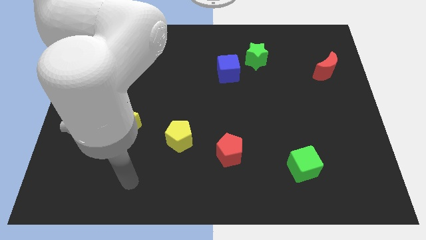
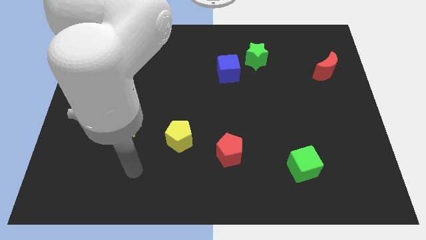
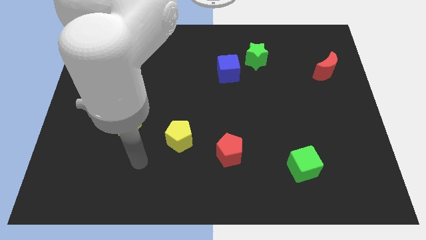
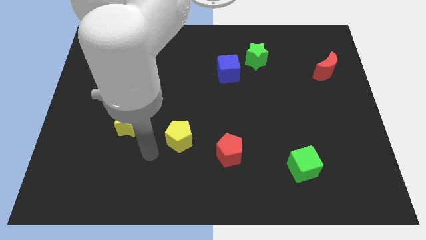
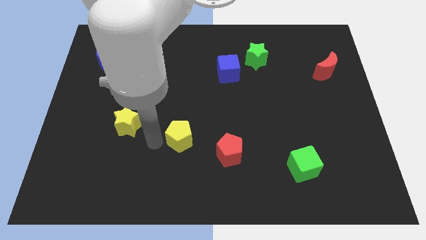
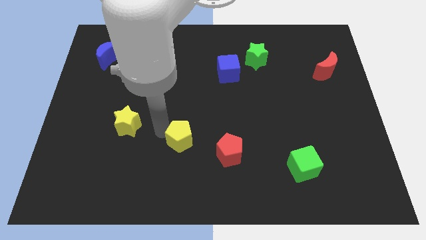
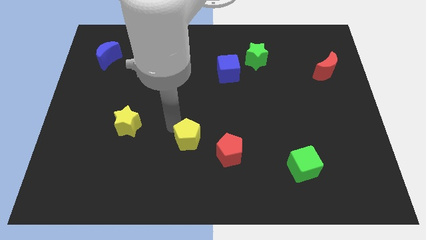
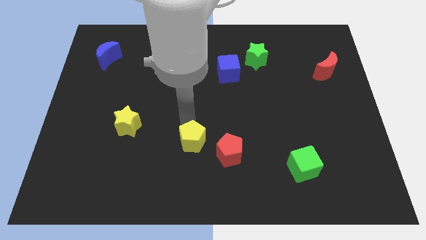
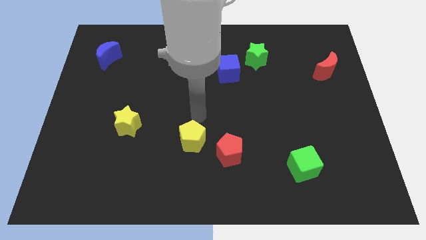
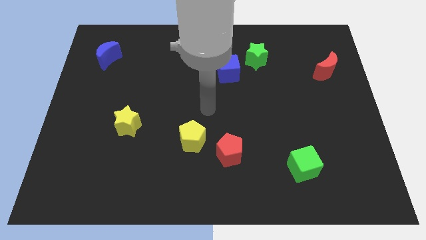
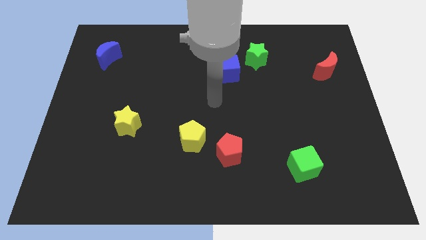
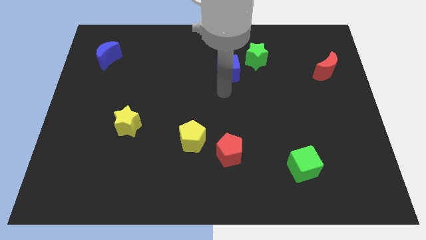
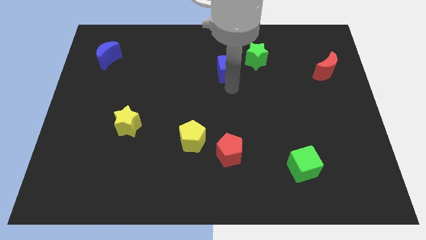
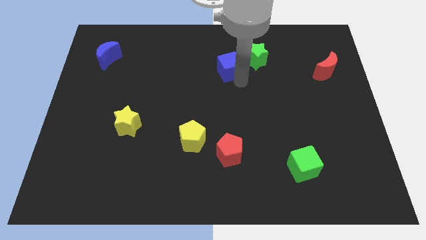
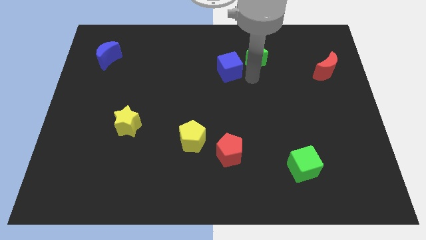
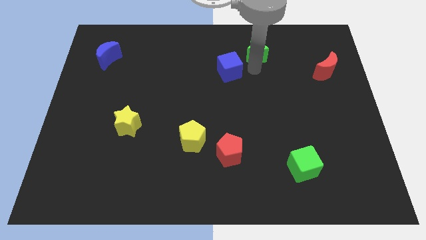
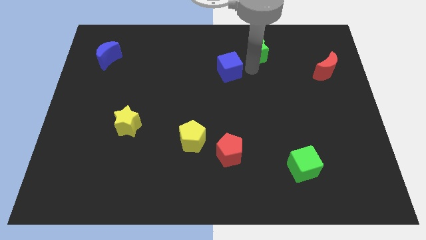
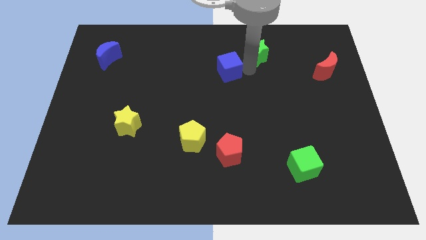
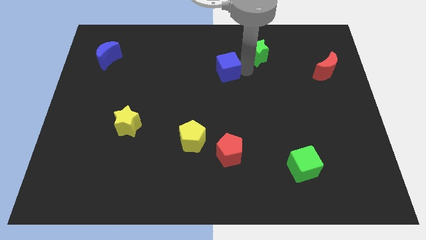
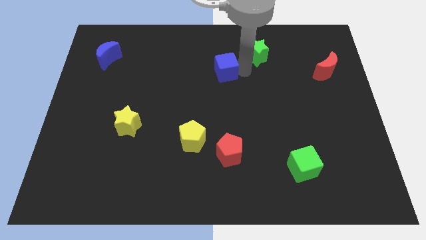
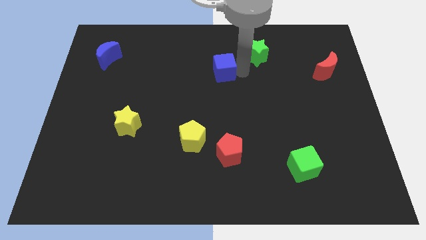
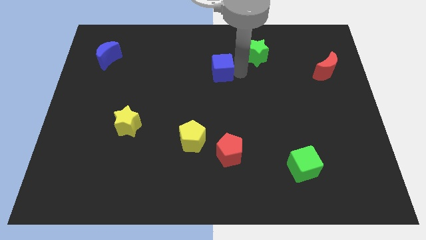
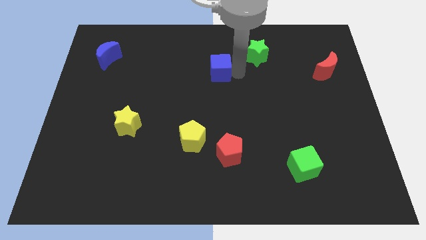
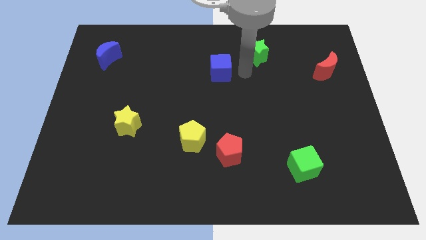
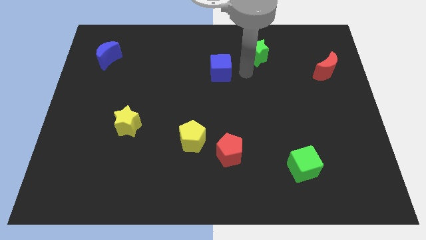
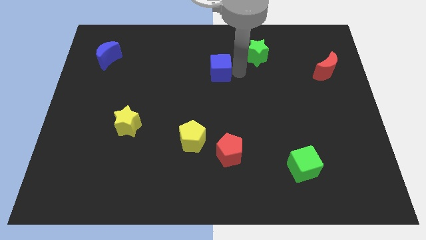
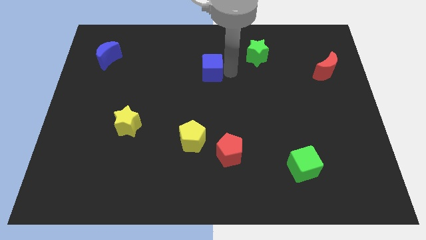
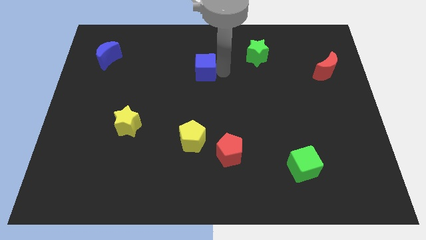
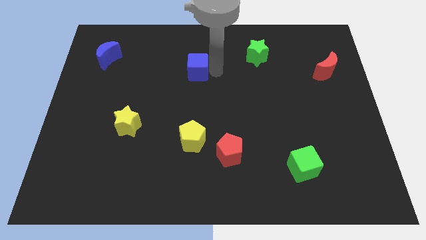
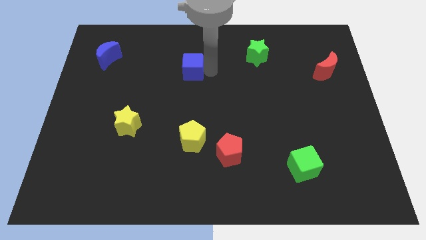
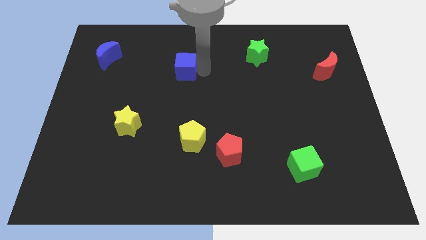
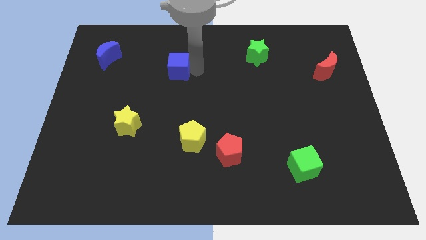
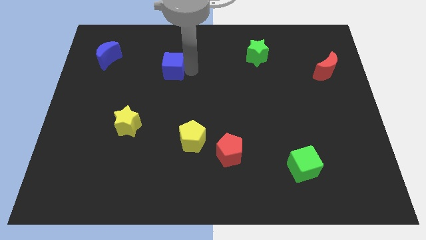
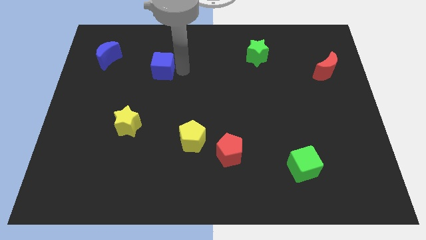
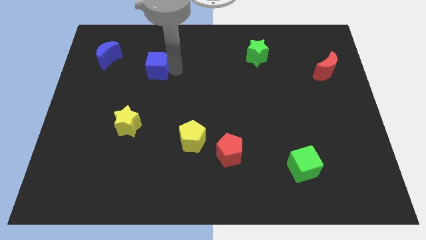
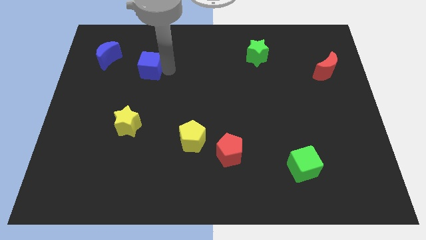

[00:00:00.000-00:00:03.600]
move the blue cube left

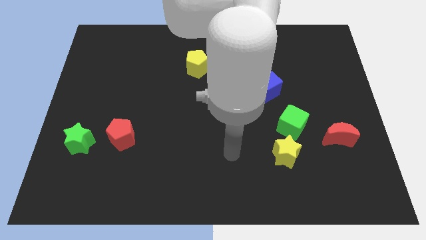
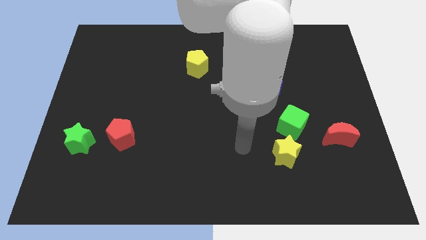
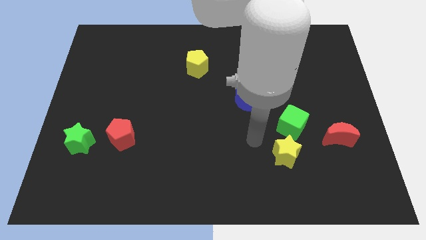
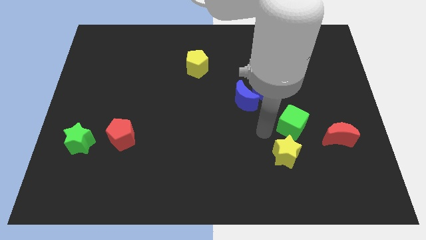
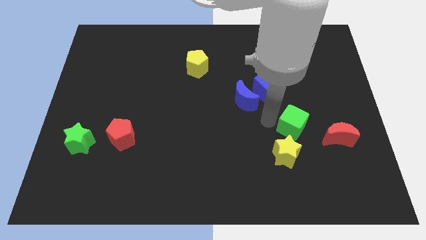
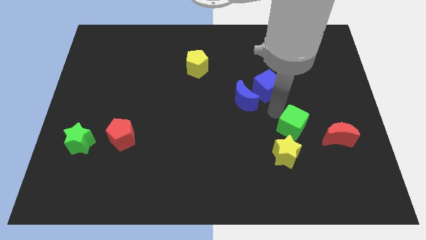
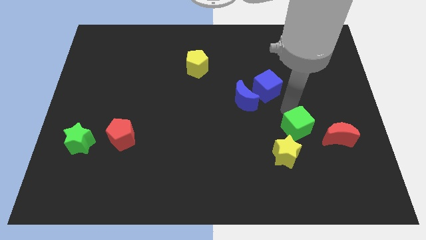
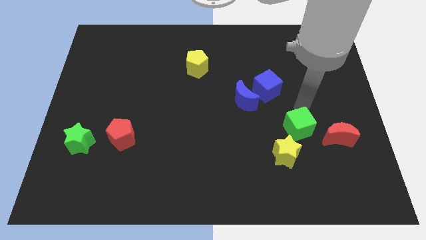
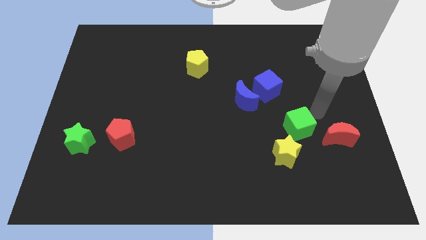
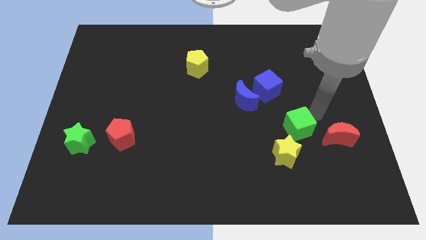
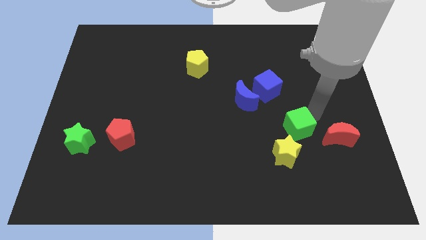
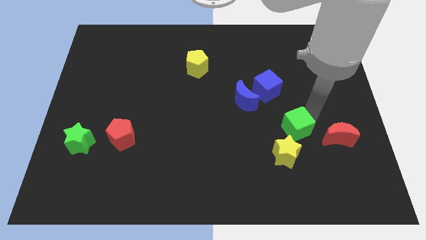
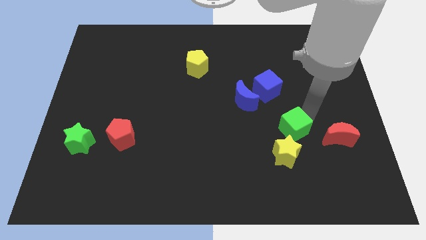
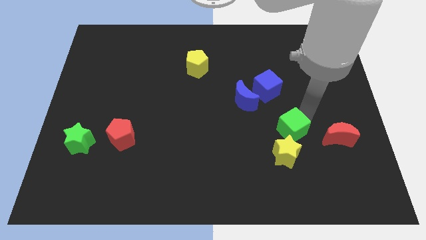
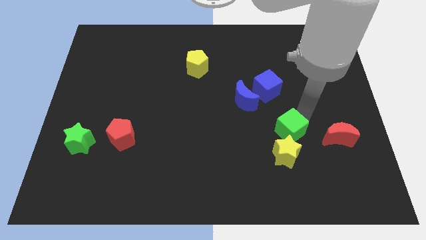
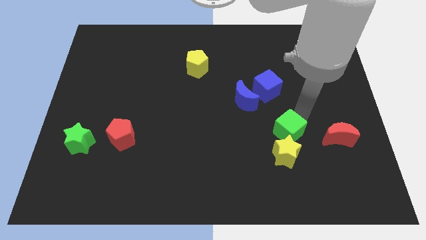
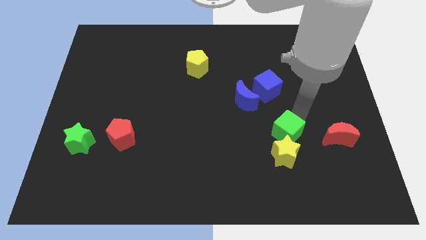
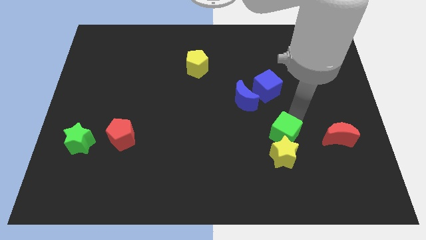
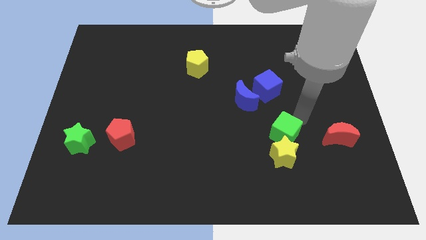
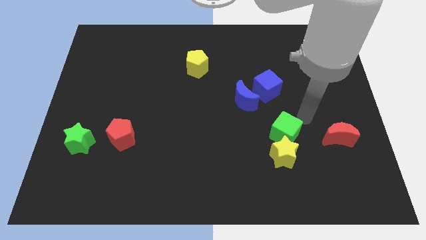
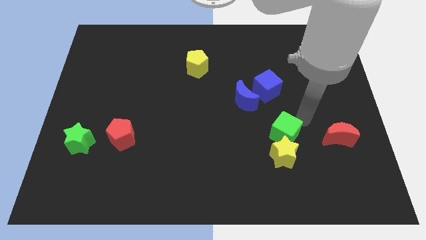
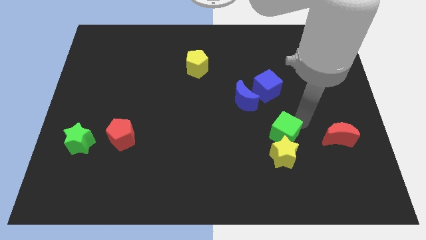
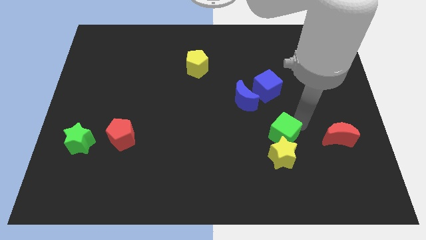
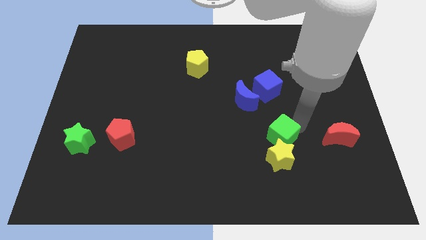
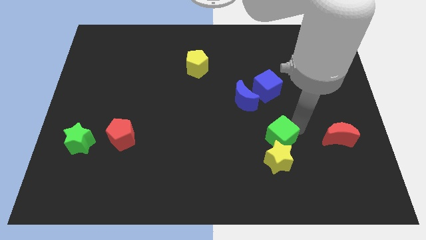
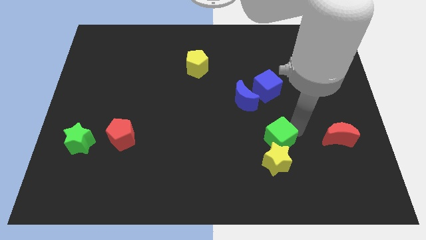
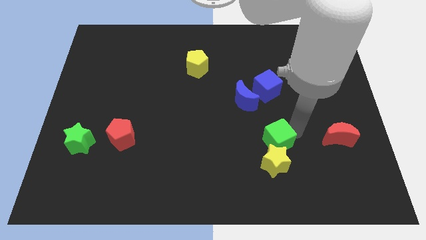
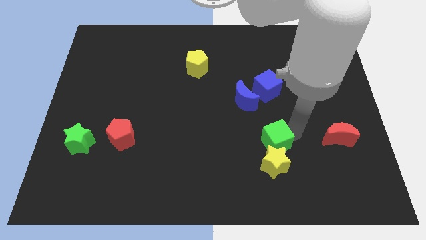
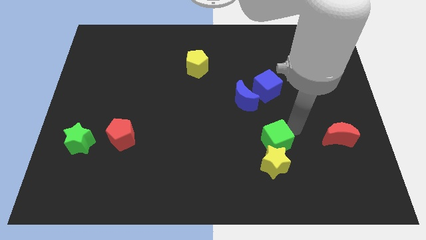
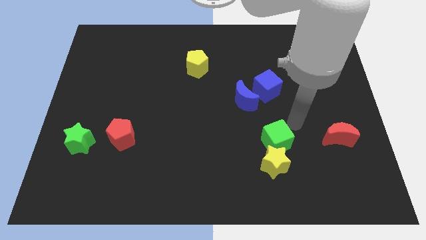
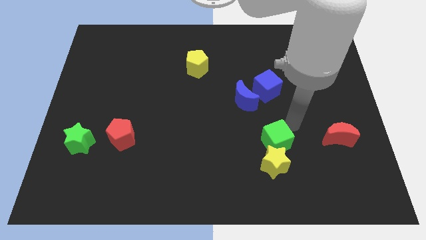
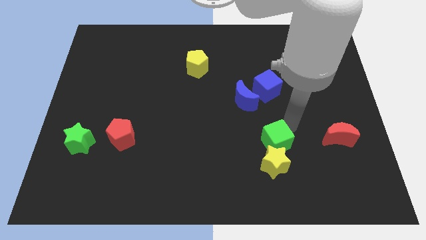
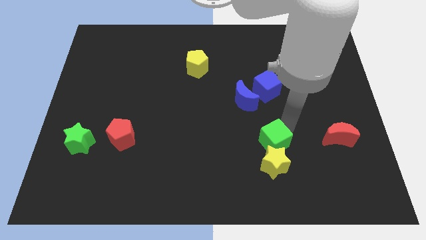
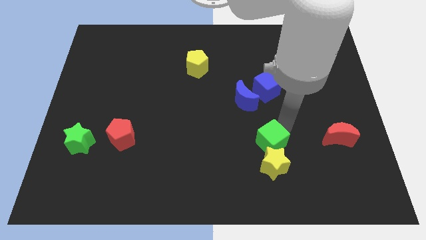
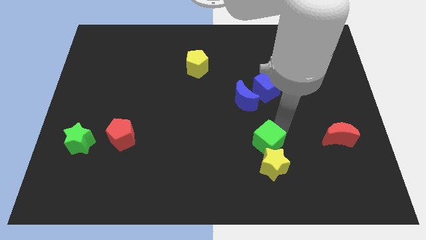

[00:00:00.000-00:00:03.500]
slightly slide the green cube diagonally down and left

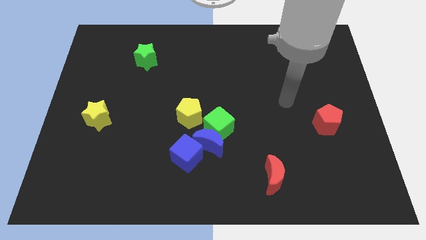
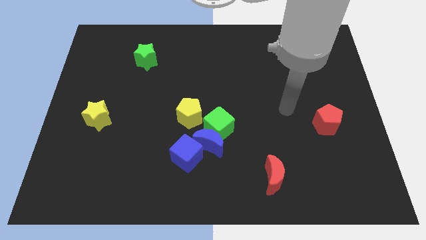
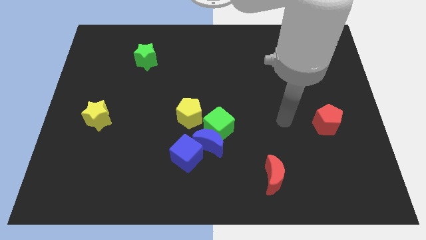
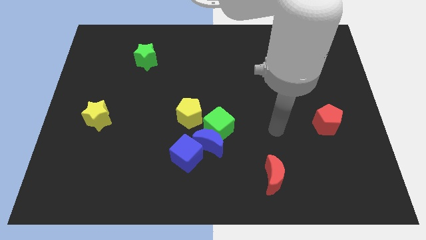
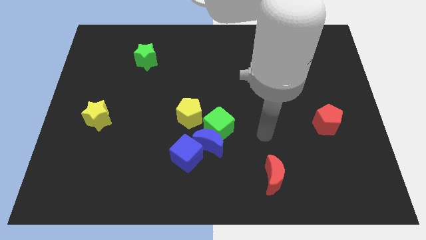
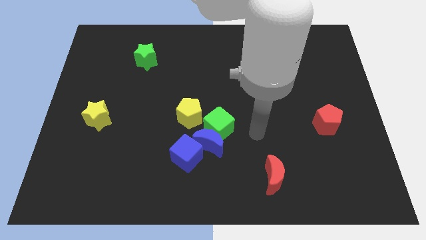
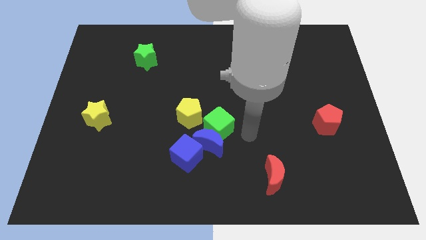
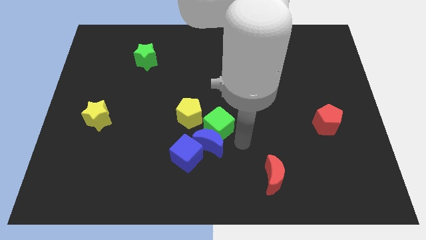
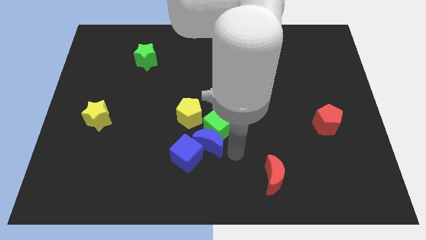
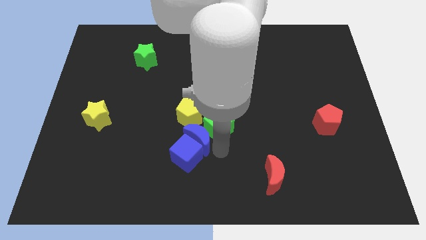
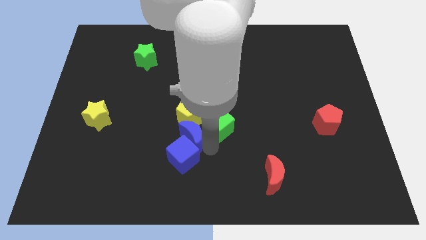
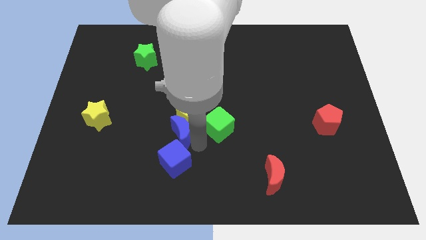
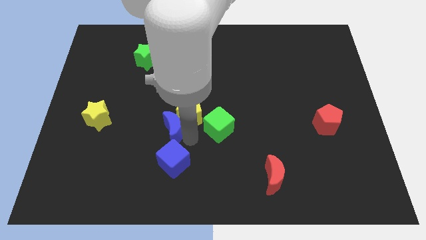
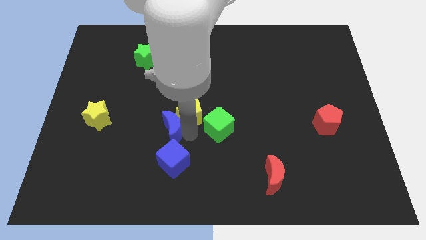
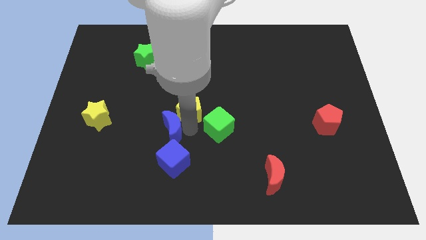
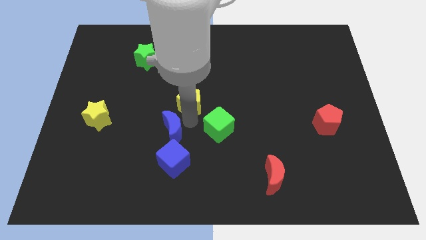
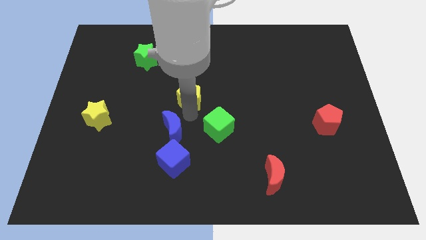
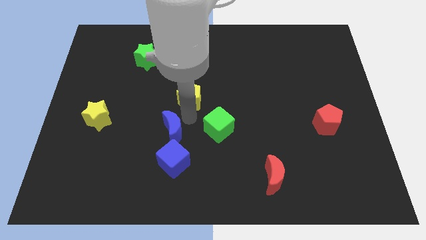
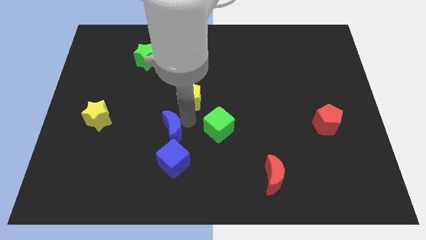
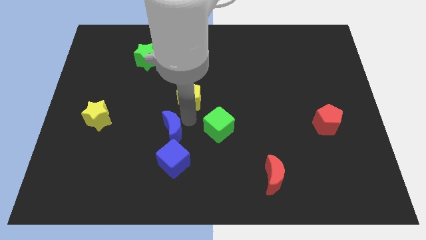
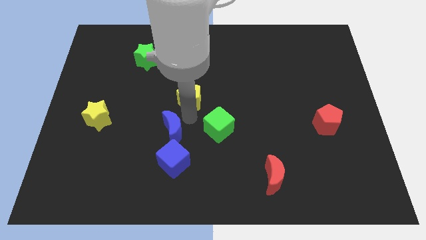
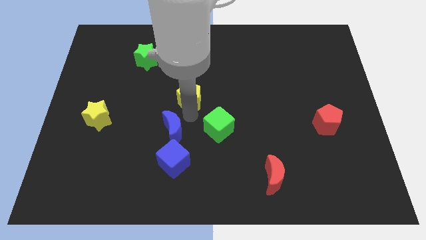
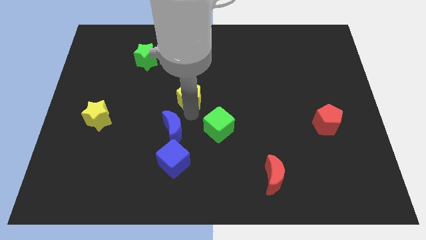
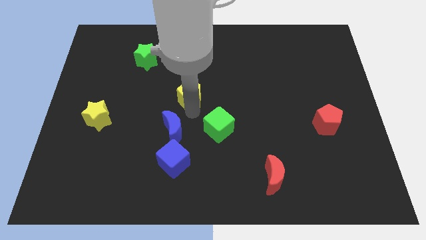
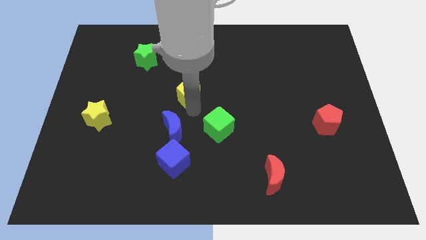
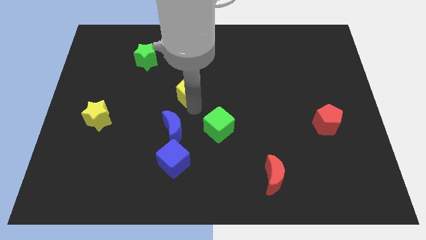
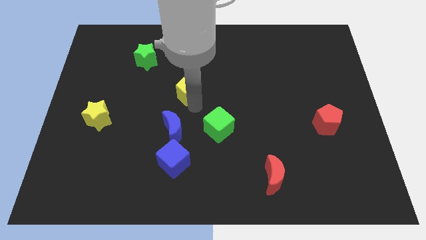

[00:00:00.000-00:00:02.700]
slightly slide the yellow pentagon up
